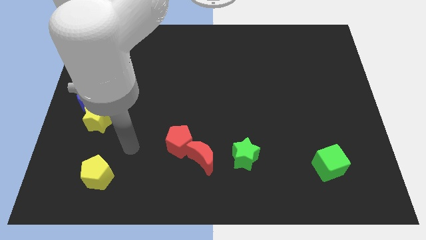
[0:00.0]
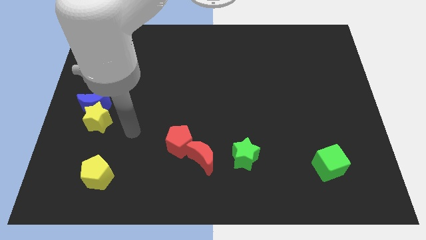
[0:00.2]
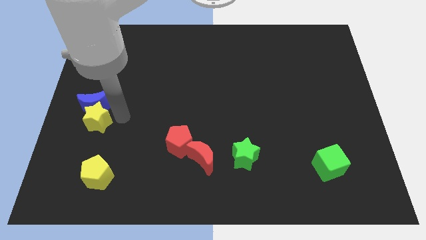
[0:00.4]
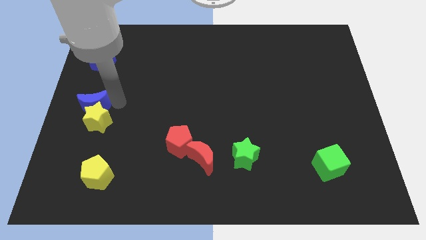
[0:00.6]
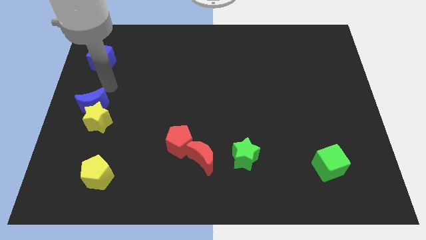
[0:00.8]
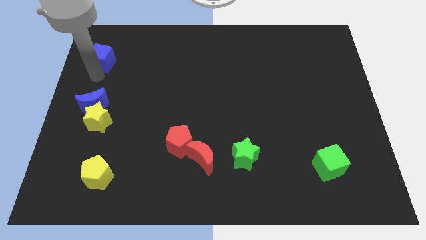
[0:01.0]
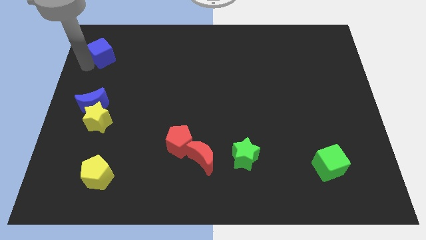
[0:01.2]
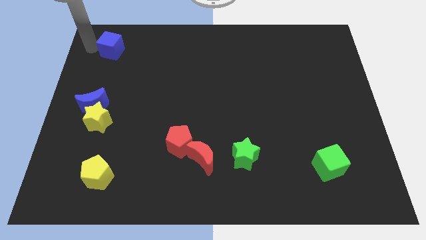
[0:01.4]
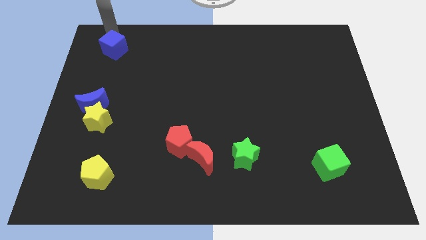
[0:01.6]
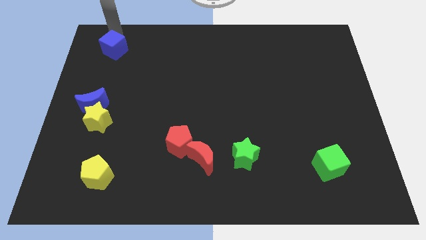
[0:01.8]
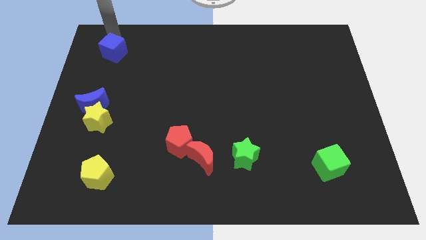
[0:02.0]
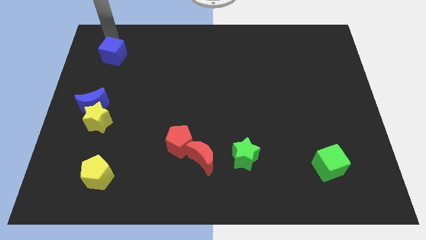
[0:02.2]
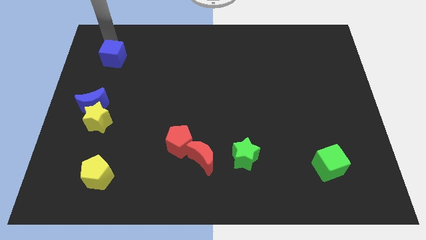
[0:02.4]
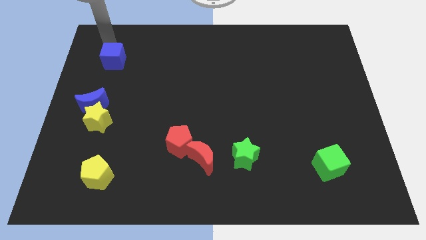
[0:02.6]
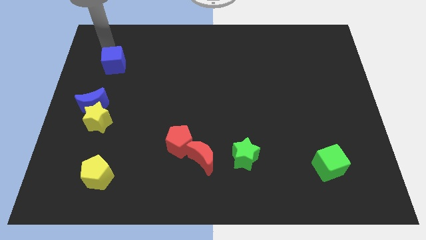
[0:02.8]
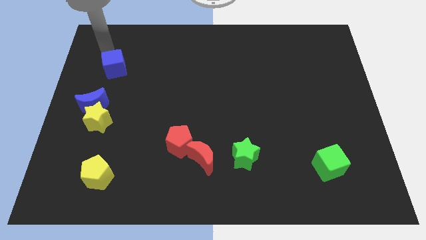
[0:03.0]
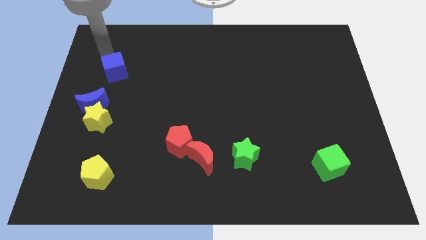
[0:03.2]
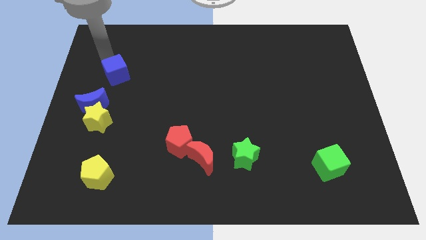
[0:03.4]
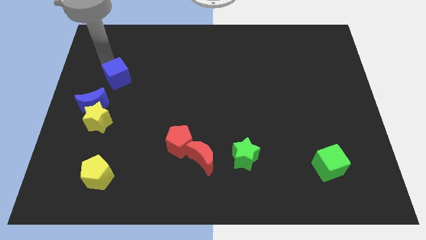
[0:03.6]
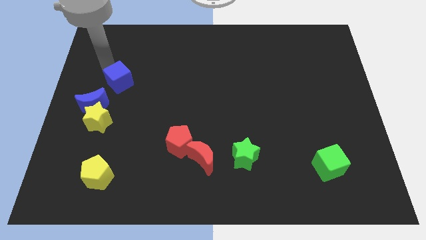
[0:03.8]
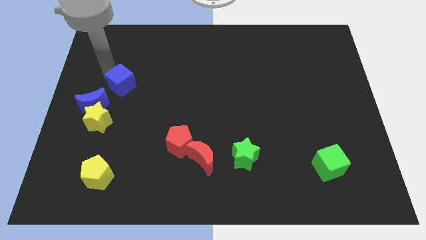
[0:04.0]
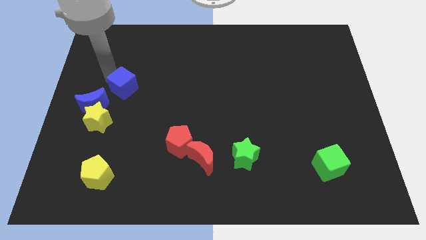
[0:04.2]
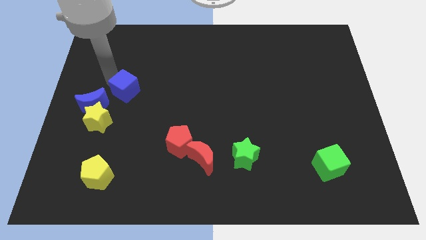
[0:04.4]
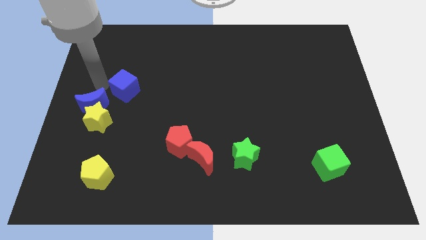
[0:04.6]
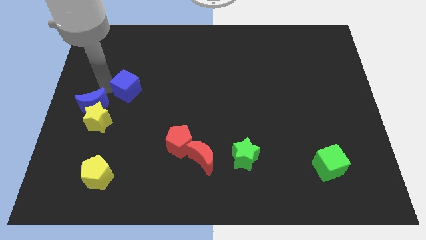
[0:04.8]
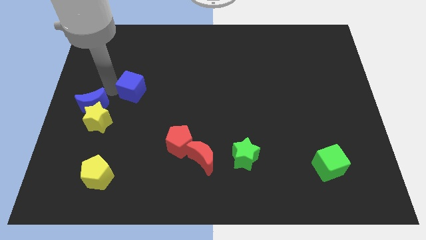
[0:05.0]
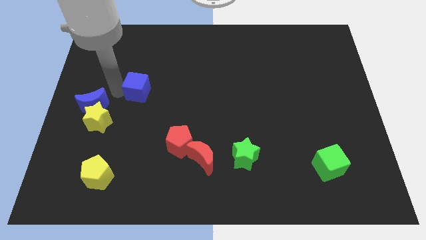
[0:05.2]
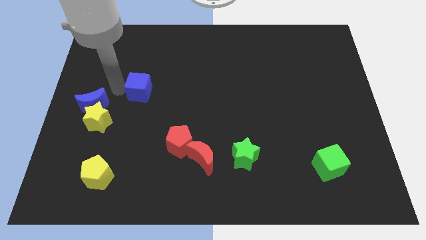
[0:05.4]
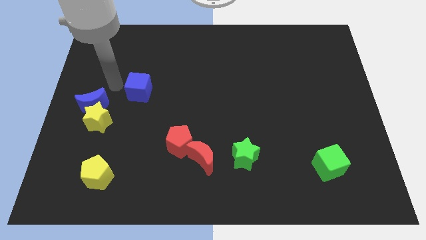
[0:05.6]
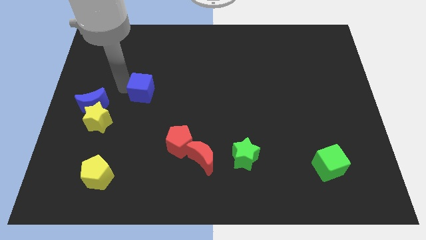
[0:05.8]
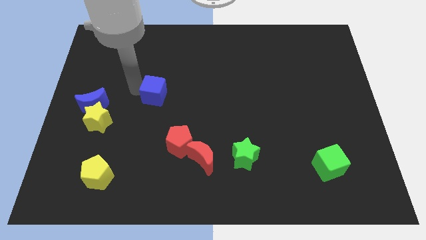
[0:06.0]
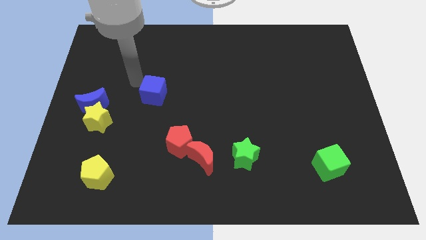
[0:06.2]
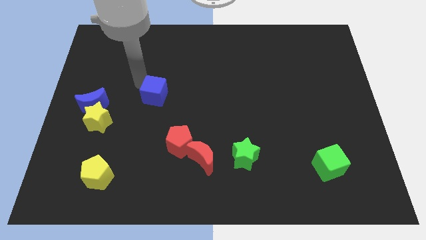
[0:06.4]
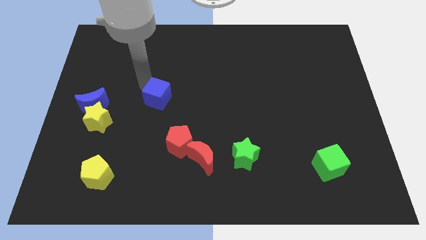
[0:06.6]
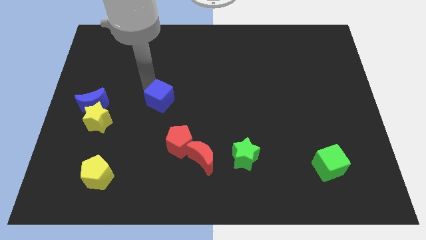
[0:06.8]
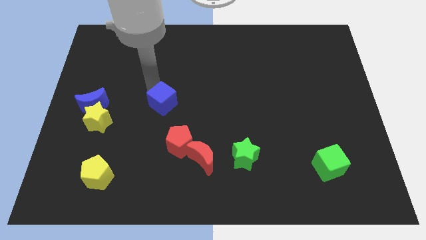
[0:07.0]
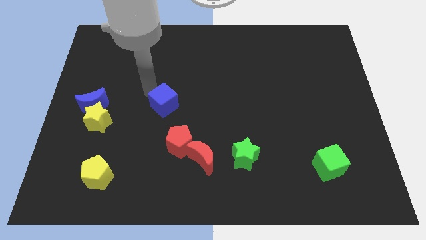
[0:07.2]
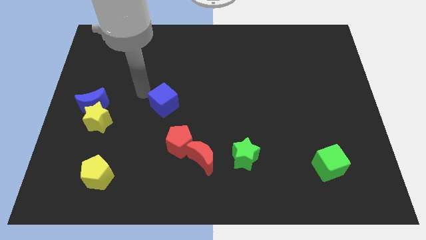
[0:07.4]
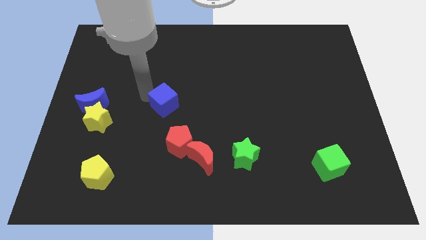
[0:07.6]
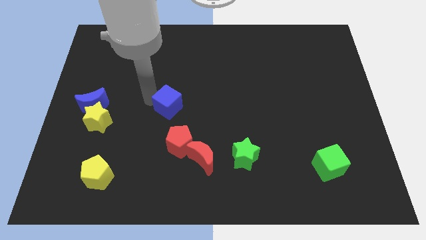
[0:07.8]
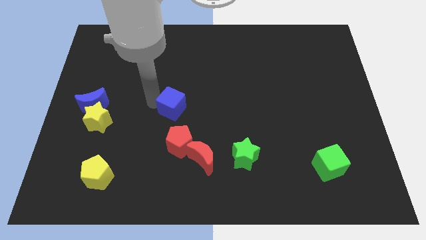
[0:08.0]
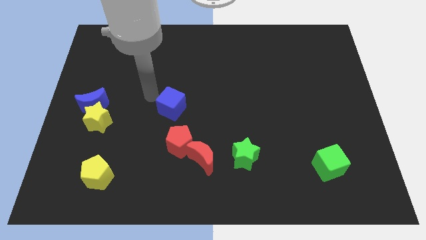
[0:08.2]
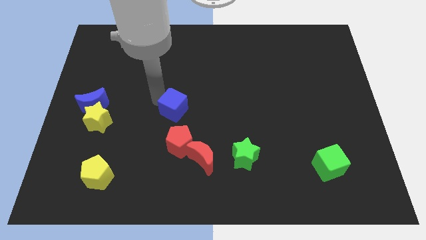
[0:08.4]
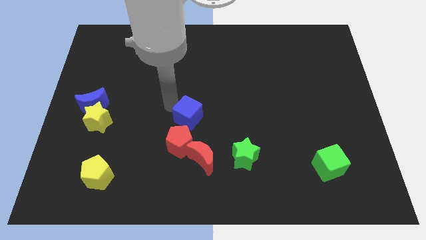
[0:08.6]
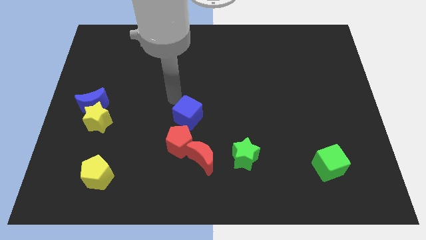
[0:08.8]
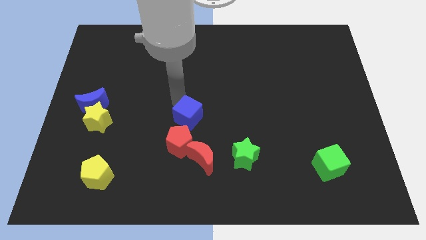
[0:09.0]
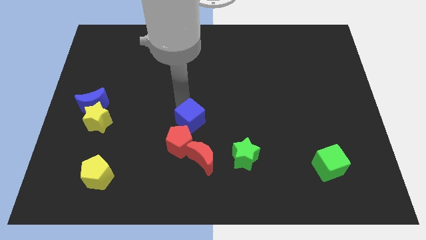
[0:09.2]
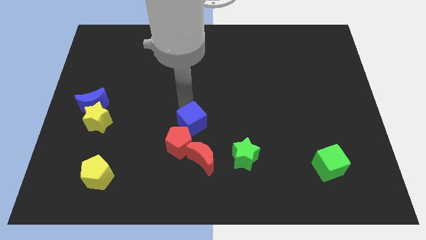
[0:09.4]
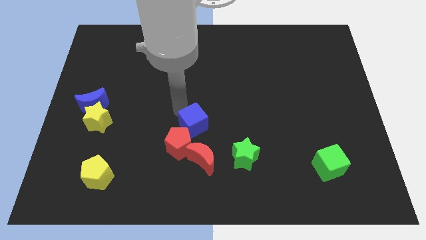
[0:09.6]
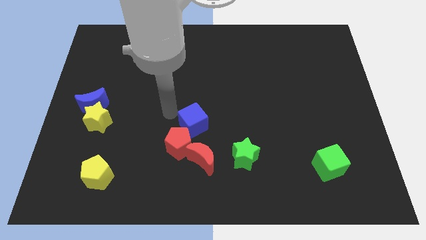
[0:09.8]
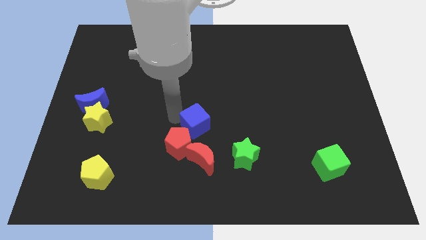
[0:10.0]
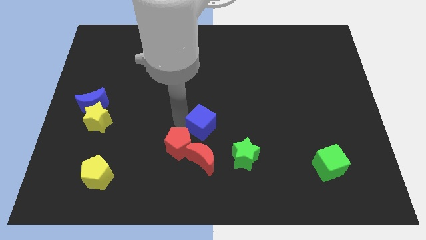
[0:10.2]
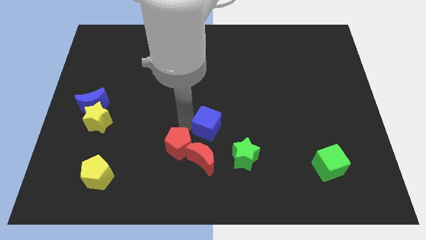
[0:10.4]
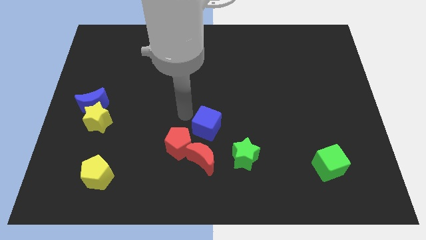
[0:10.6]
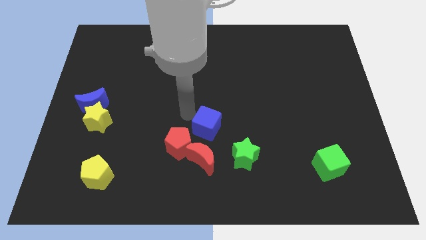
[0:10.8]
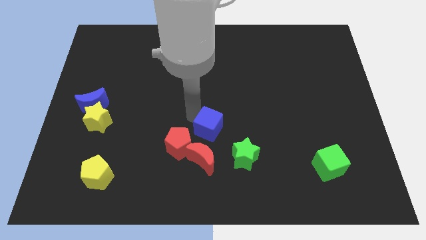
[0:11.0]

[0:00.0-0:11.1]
push the blue cube to the top right of the red moon

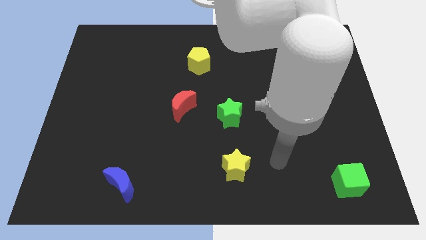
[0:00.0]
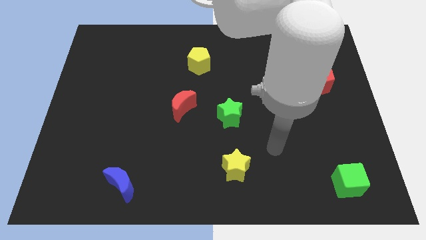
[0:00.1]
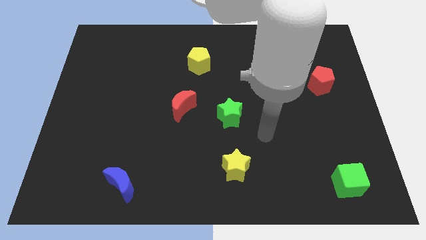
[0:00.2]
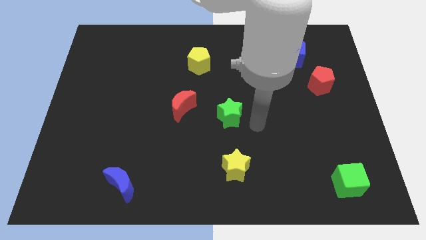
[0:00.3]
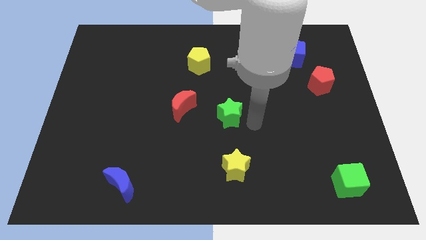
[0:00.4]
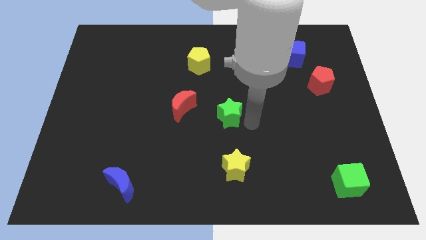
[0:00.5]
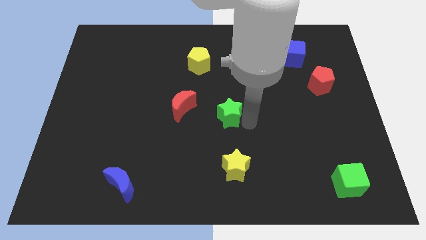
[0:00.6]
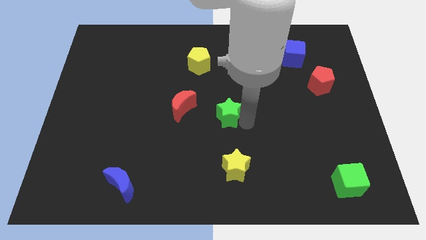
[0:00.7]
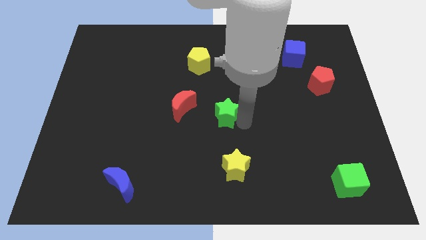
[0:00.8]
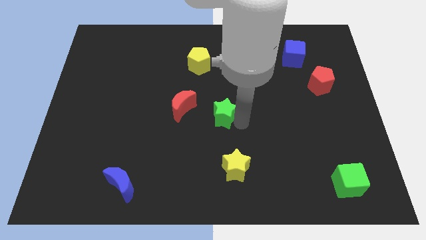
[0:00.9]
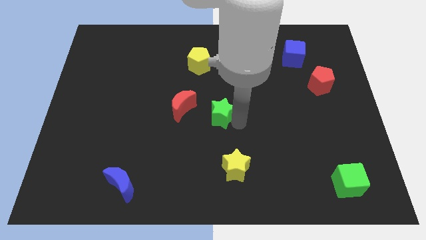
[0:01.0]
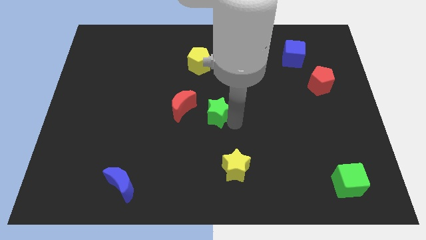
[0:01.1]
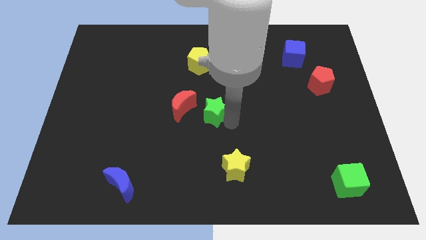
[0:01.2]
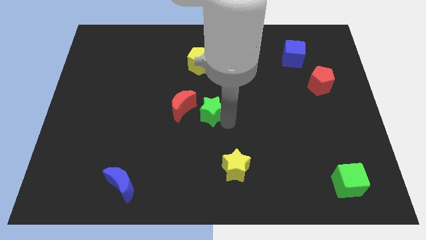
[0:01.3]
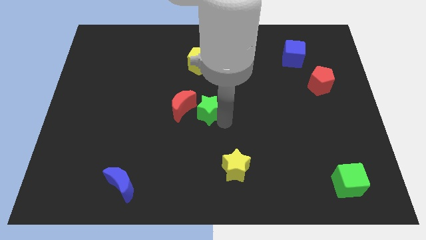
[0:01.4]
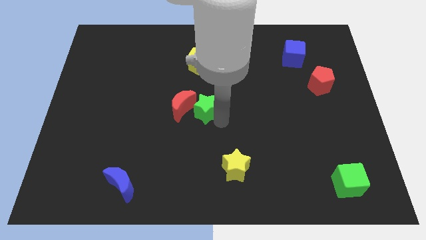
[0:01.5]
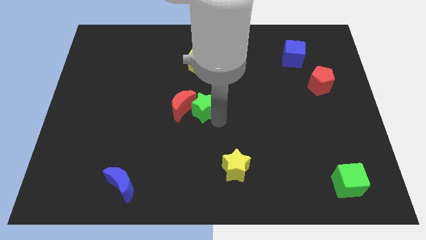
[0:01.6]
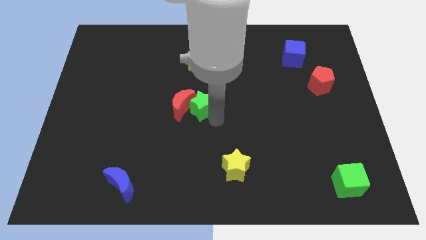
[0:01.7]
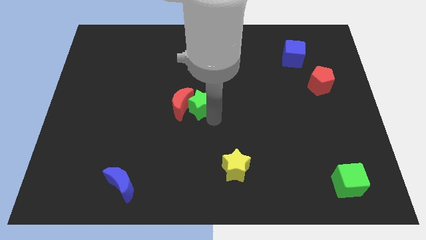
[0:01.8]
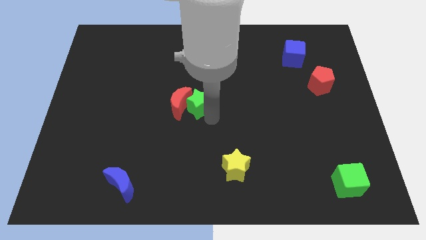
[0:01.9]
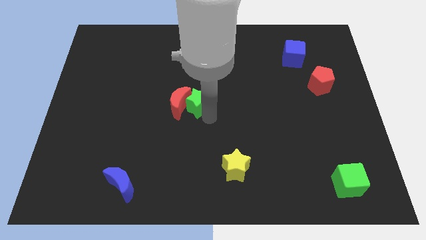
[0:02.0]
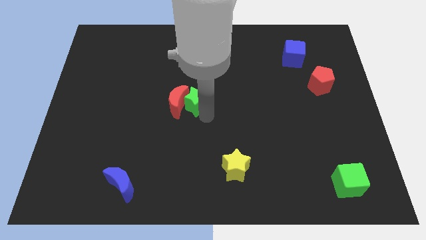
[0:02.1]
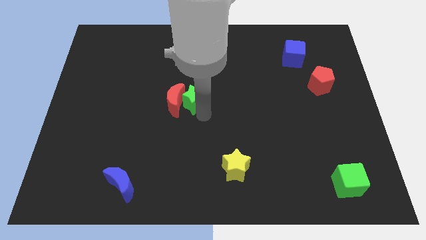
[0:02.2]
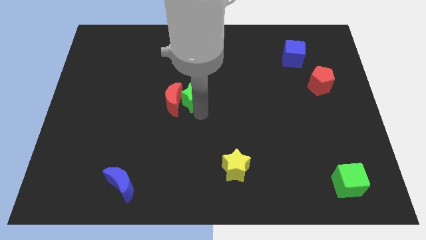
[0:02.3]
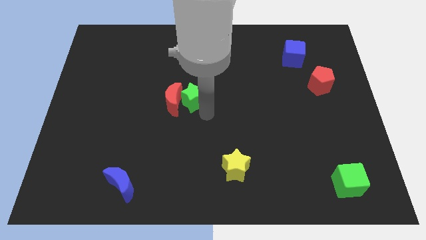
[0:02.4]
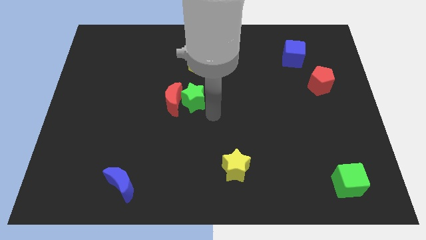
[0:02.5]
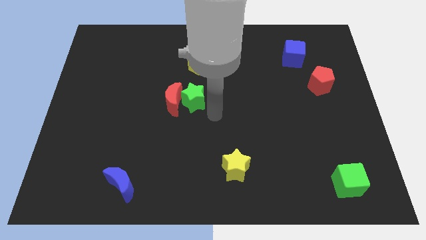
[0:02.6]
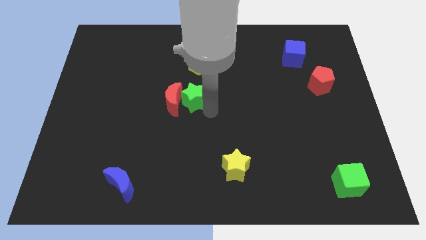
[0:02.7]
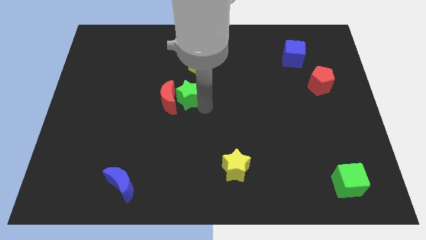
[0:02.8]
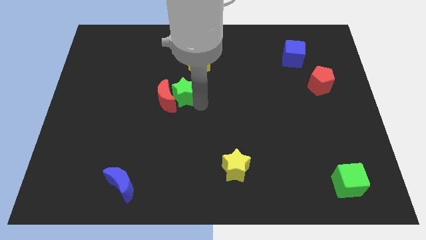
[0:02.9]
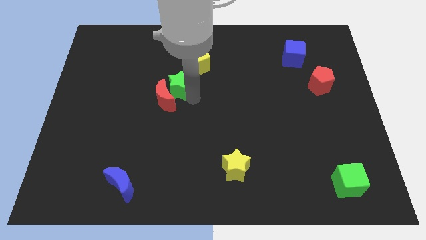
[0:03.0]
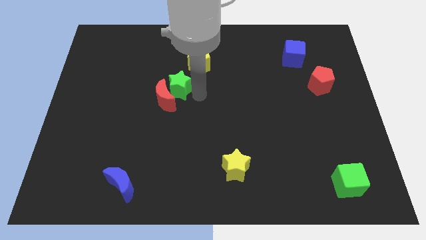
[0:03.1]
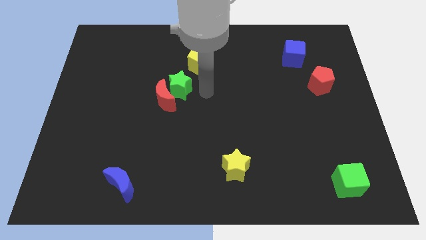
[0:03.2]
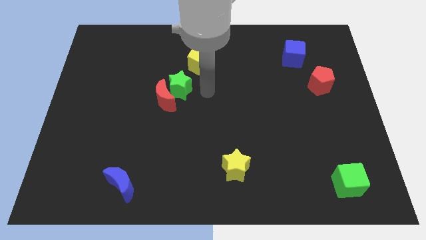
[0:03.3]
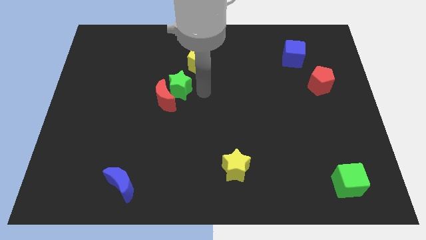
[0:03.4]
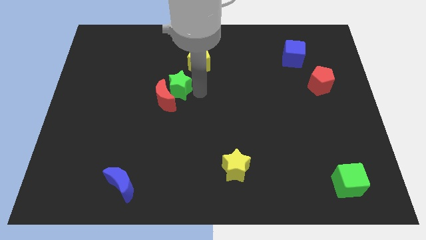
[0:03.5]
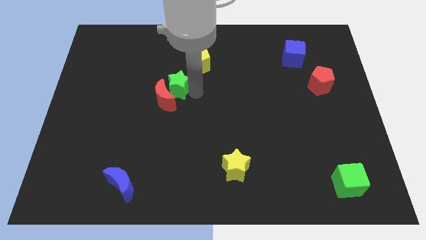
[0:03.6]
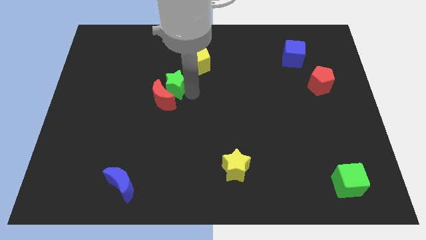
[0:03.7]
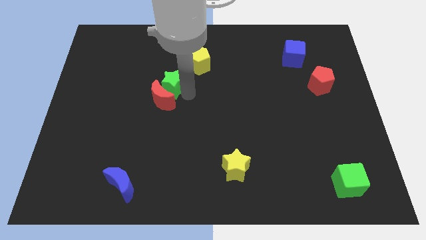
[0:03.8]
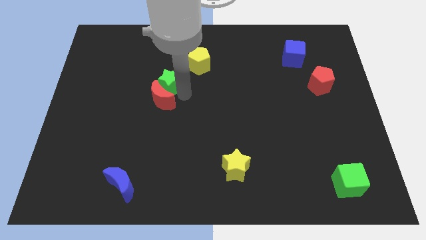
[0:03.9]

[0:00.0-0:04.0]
slide the green star to the top left side of the red moon
